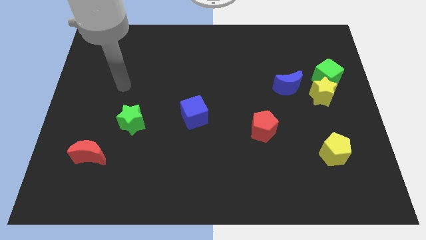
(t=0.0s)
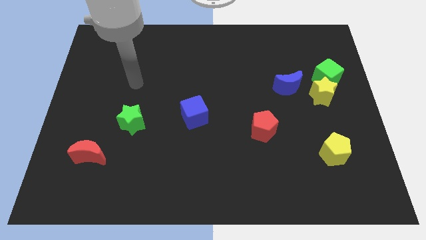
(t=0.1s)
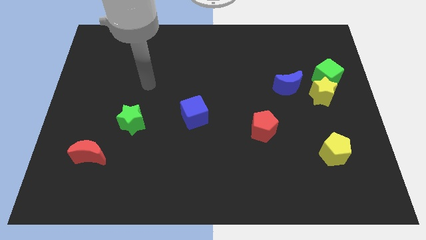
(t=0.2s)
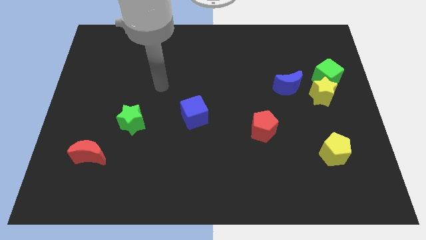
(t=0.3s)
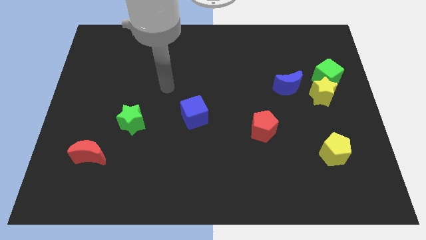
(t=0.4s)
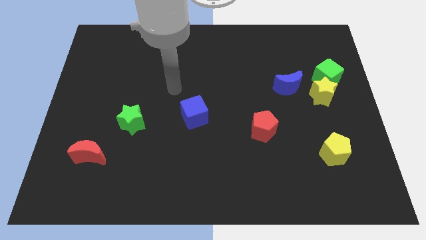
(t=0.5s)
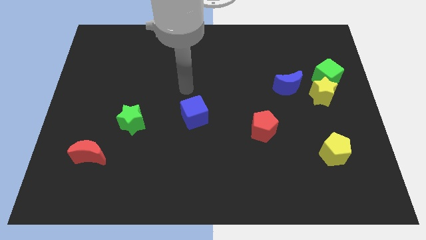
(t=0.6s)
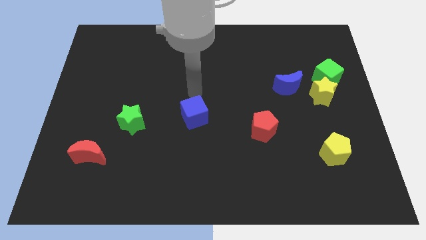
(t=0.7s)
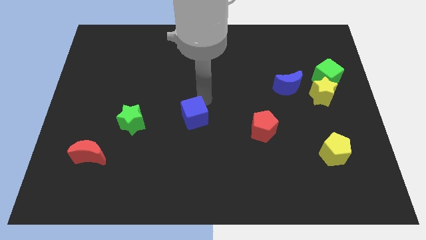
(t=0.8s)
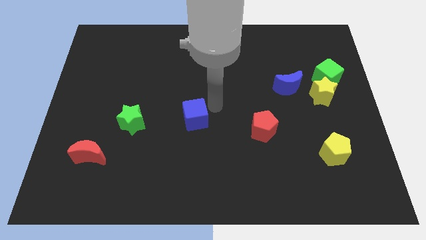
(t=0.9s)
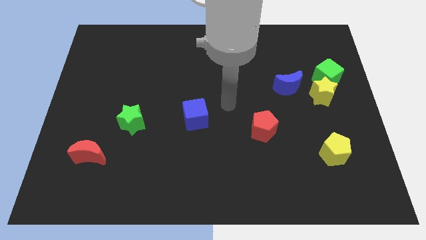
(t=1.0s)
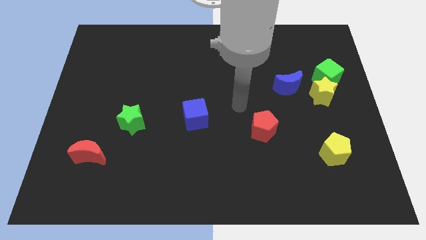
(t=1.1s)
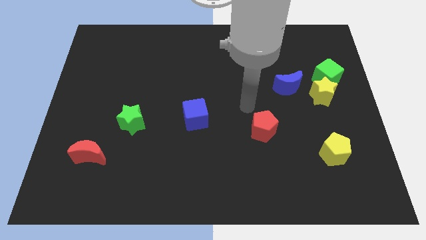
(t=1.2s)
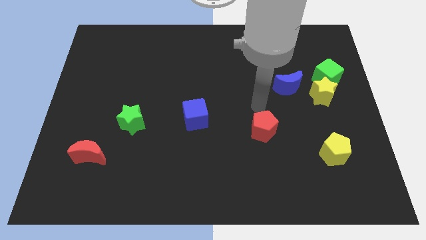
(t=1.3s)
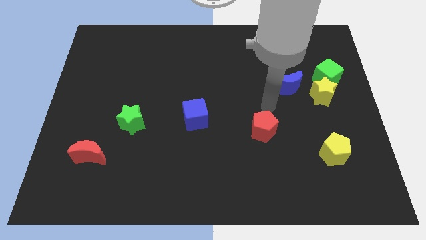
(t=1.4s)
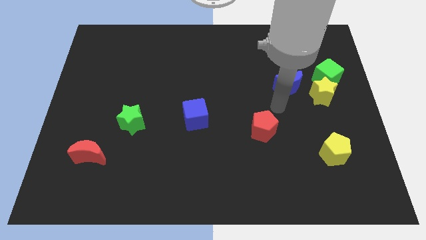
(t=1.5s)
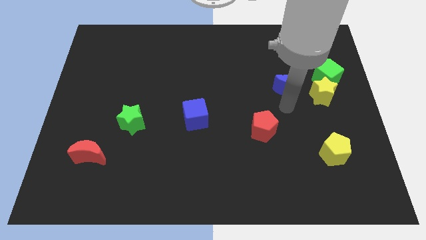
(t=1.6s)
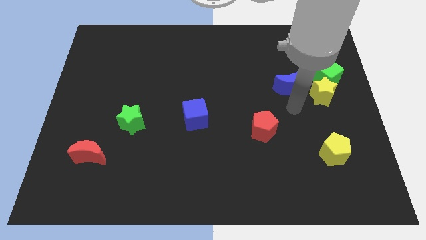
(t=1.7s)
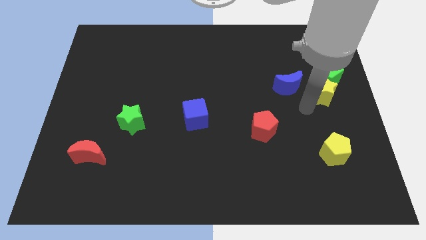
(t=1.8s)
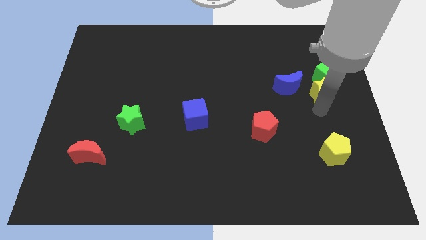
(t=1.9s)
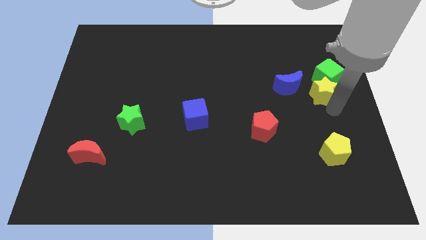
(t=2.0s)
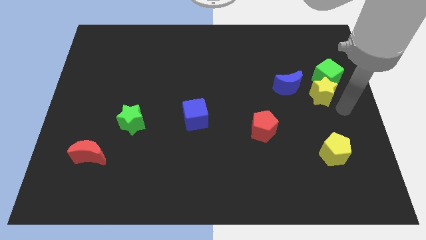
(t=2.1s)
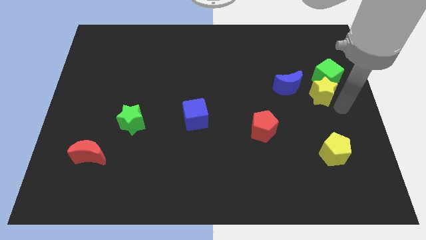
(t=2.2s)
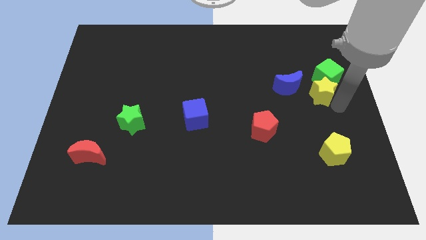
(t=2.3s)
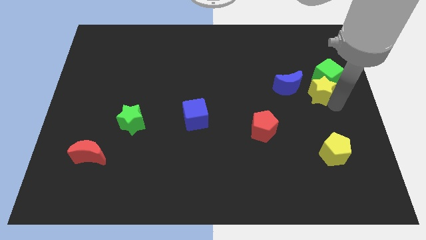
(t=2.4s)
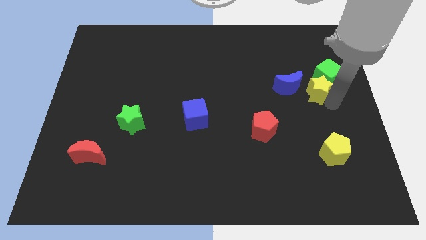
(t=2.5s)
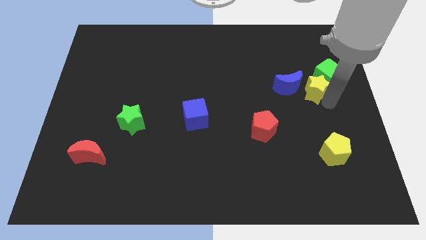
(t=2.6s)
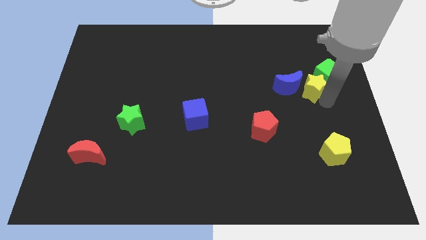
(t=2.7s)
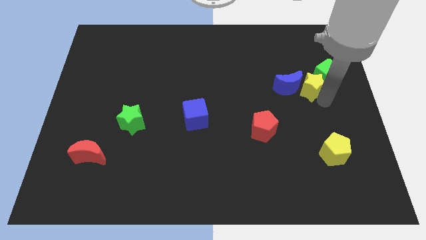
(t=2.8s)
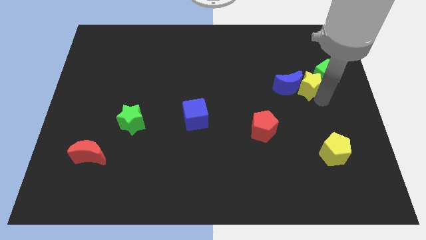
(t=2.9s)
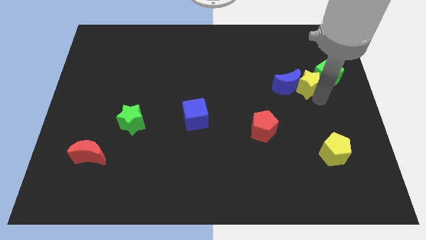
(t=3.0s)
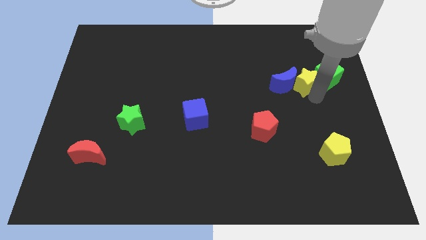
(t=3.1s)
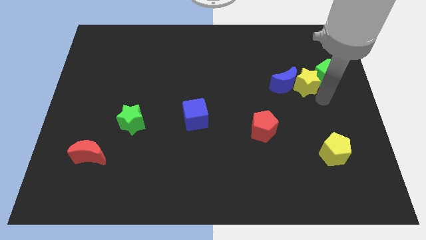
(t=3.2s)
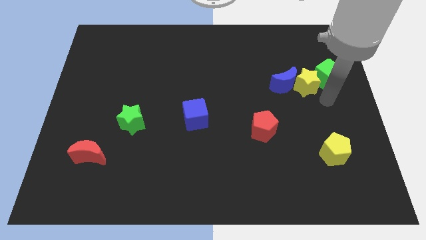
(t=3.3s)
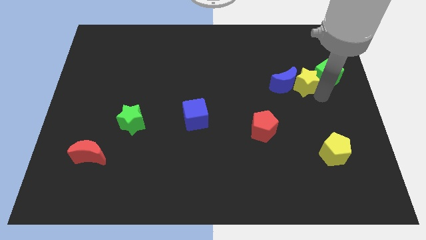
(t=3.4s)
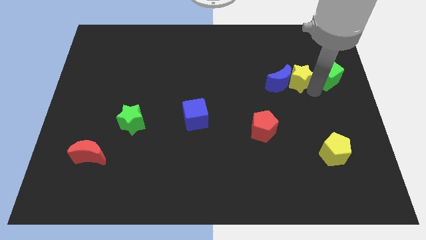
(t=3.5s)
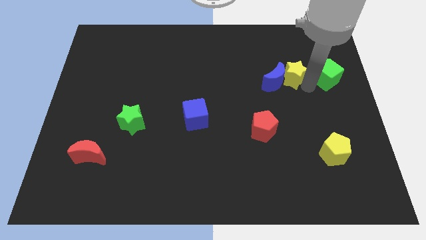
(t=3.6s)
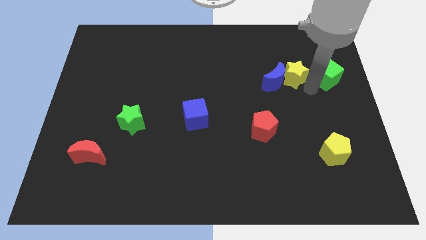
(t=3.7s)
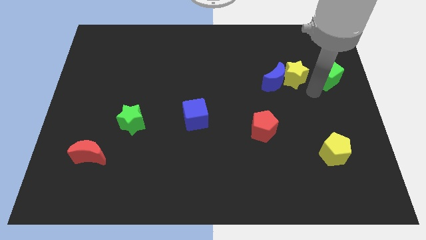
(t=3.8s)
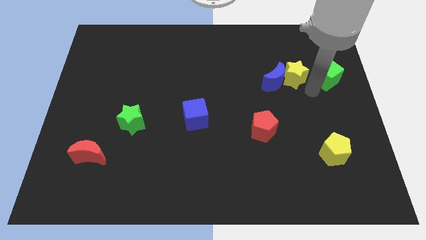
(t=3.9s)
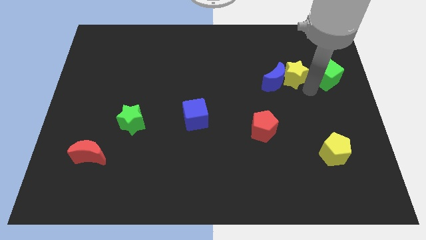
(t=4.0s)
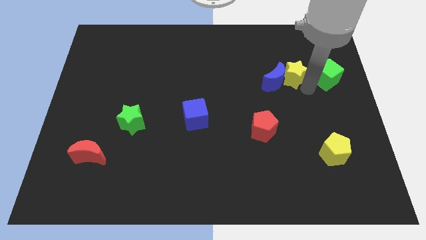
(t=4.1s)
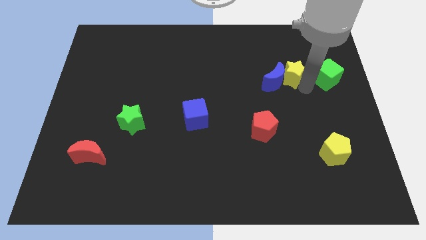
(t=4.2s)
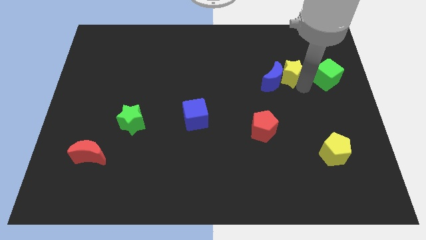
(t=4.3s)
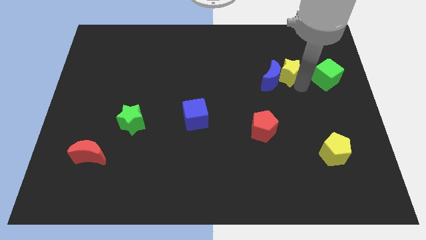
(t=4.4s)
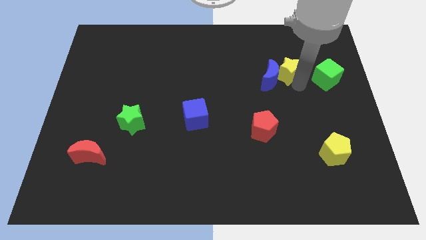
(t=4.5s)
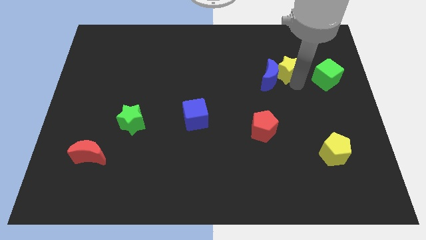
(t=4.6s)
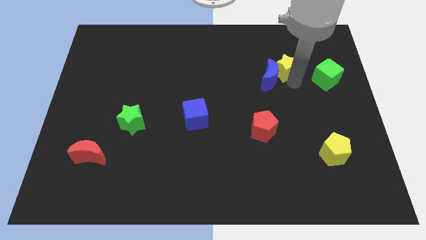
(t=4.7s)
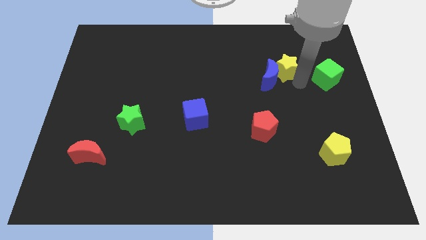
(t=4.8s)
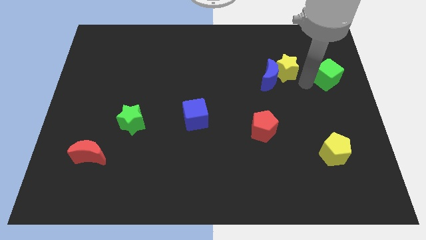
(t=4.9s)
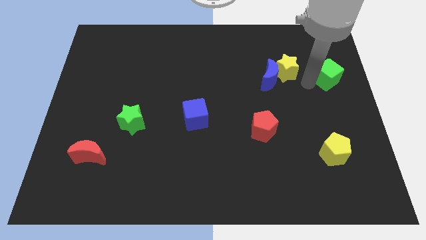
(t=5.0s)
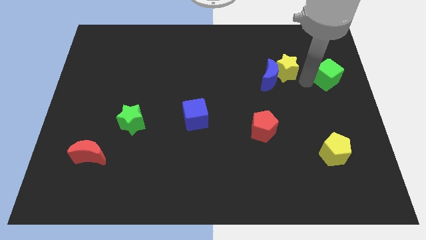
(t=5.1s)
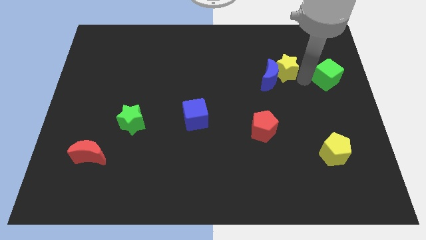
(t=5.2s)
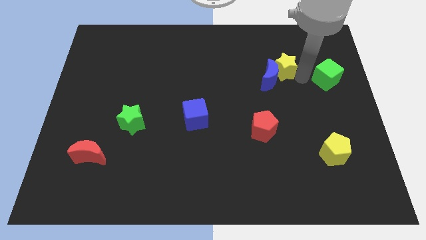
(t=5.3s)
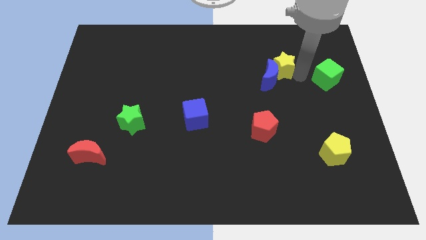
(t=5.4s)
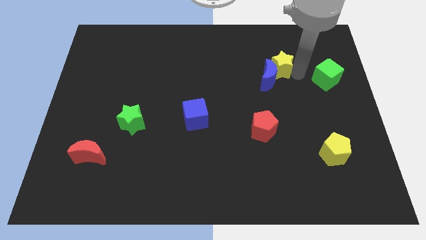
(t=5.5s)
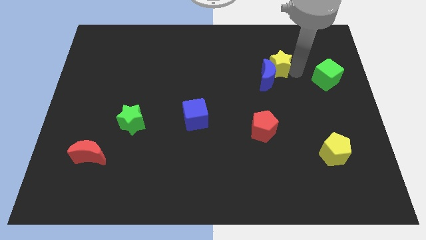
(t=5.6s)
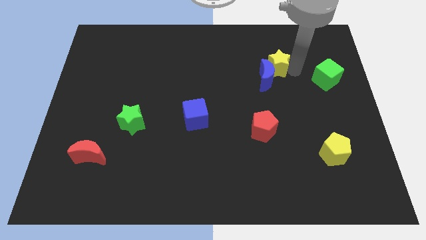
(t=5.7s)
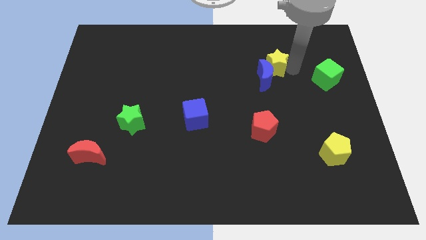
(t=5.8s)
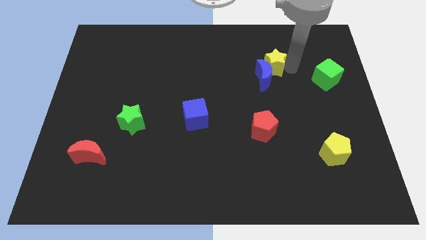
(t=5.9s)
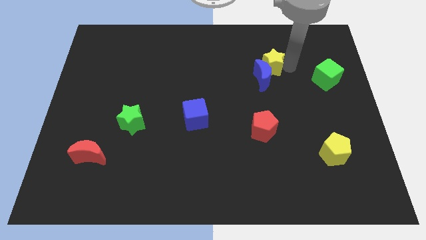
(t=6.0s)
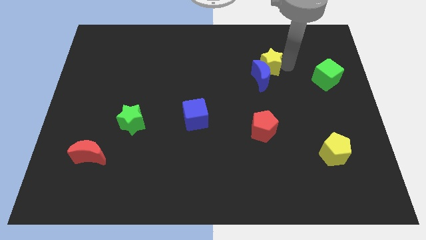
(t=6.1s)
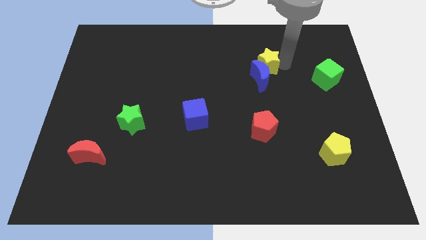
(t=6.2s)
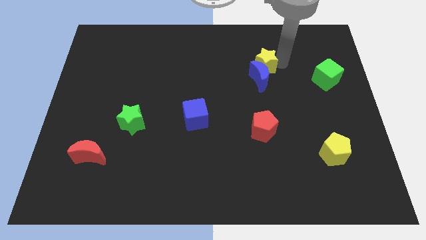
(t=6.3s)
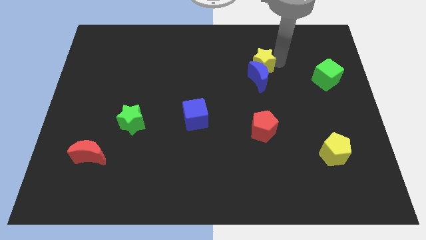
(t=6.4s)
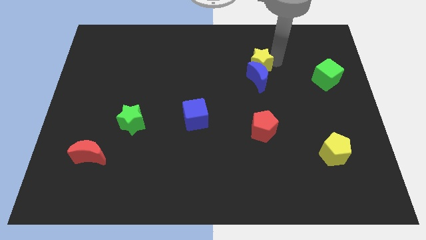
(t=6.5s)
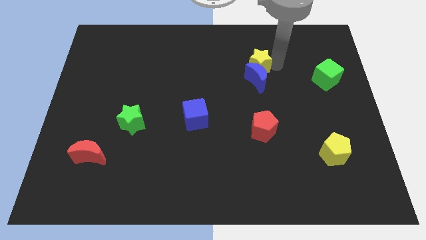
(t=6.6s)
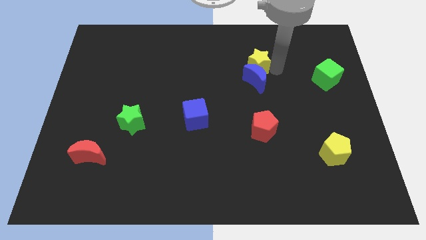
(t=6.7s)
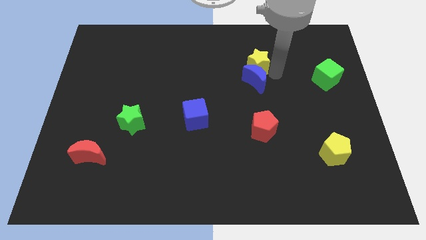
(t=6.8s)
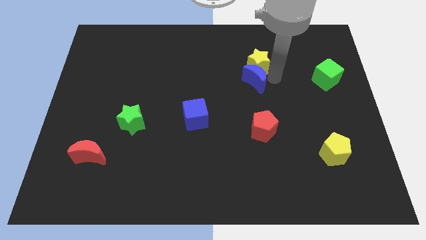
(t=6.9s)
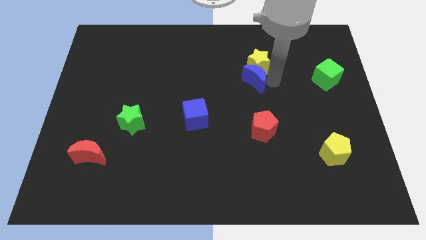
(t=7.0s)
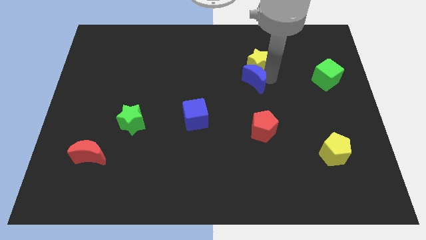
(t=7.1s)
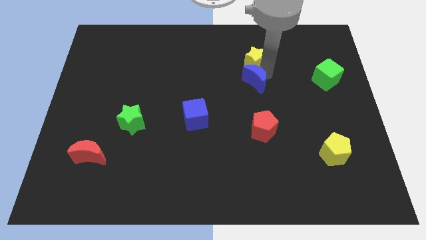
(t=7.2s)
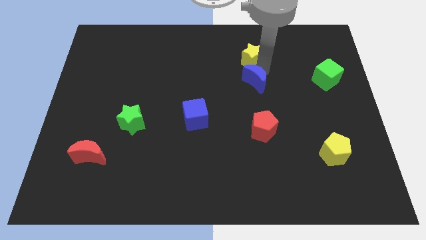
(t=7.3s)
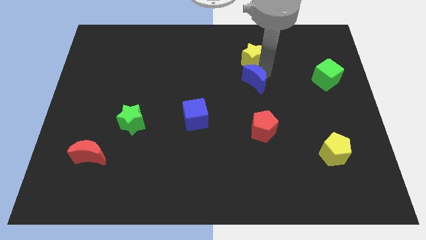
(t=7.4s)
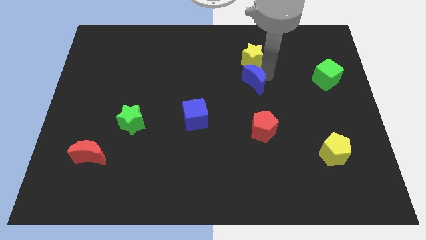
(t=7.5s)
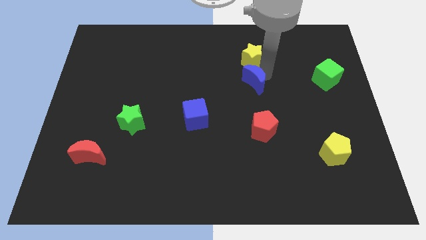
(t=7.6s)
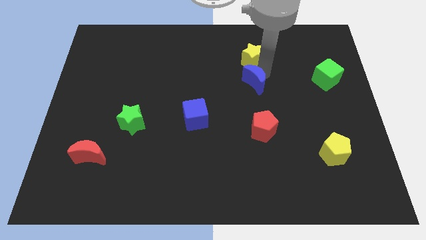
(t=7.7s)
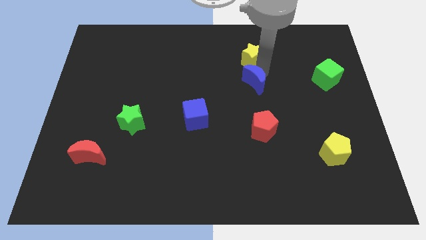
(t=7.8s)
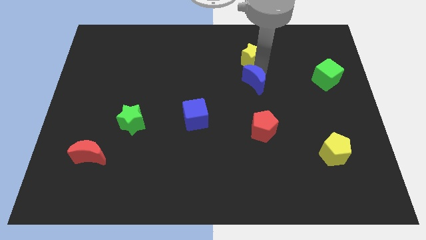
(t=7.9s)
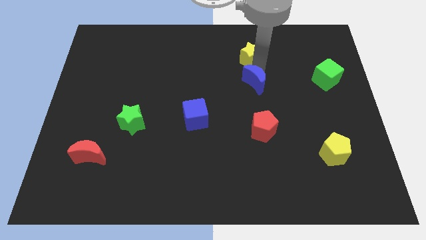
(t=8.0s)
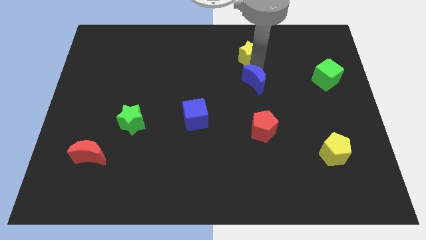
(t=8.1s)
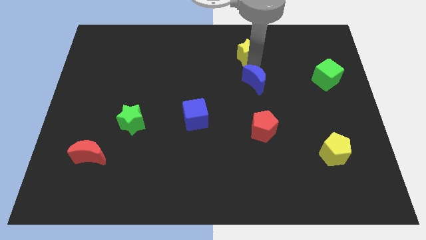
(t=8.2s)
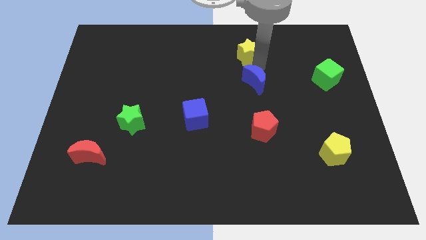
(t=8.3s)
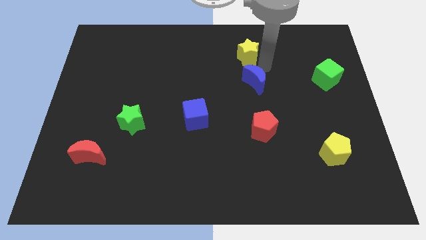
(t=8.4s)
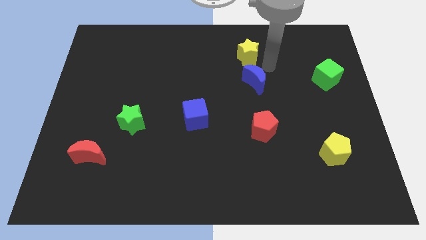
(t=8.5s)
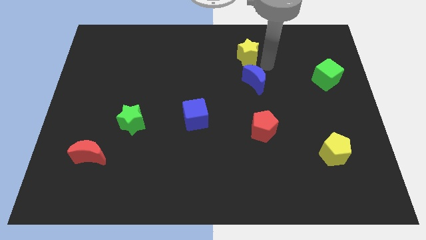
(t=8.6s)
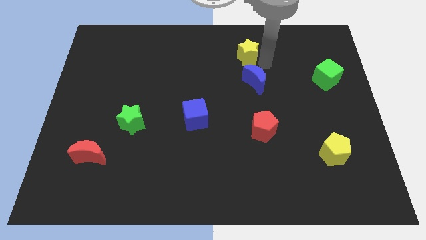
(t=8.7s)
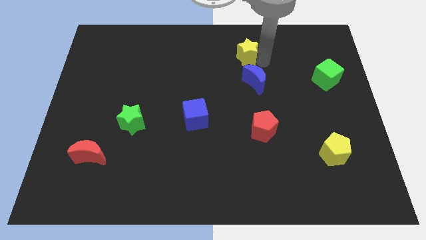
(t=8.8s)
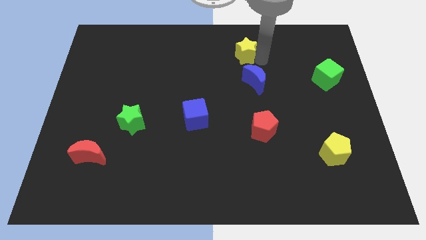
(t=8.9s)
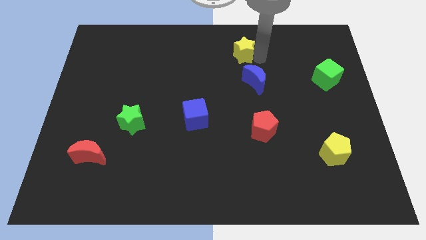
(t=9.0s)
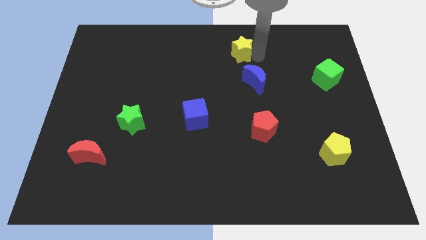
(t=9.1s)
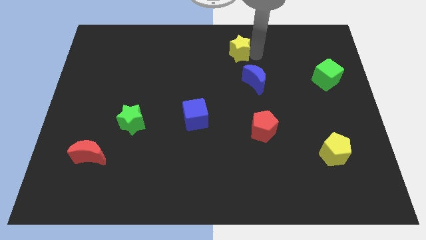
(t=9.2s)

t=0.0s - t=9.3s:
slide the yellow star to the top side
